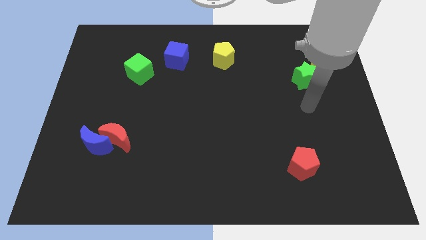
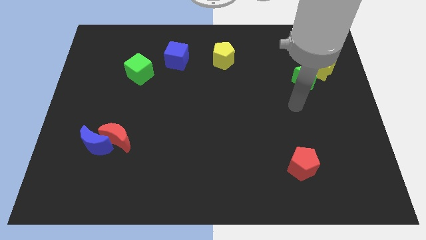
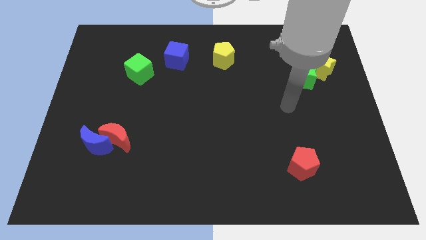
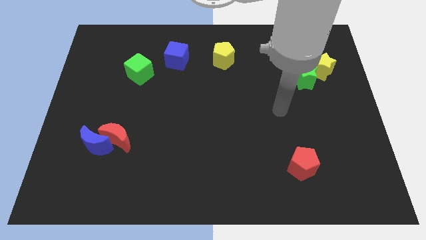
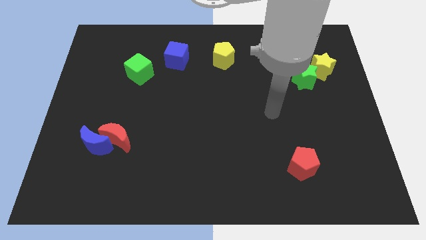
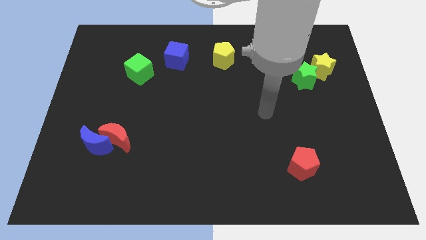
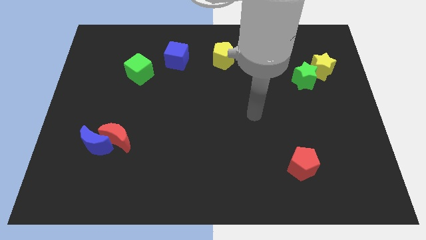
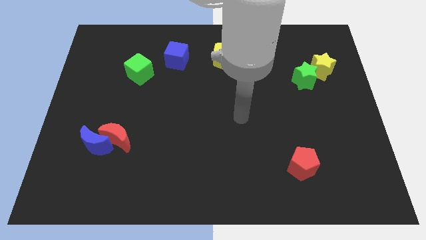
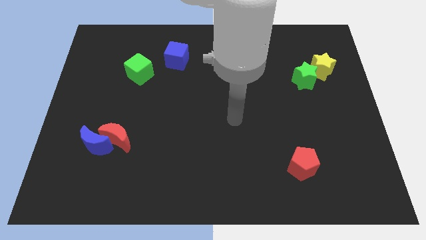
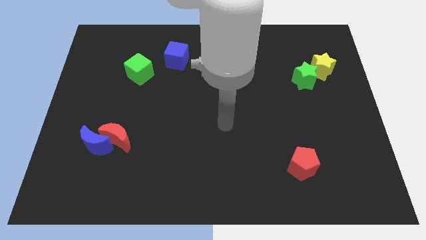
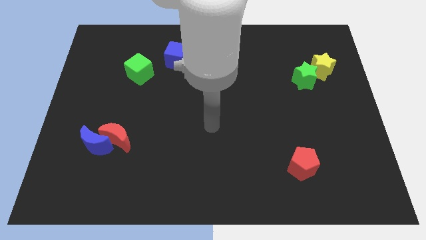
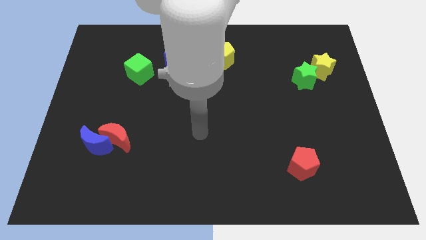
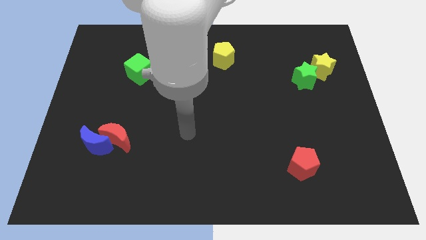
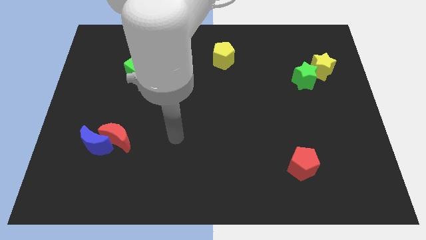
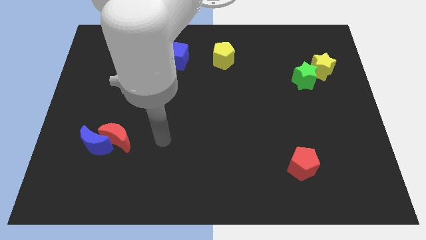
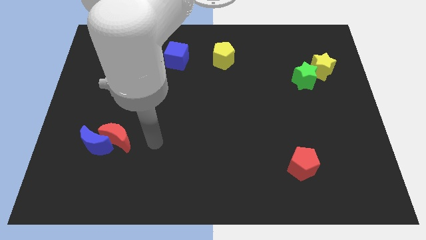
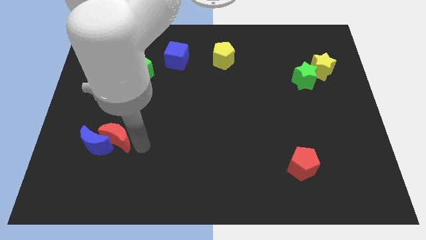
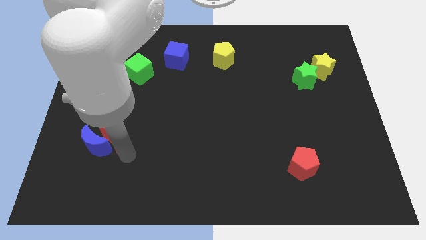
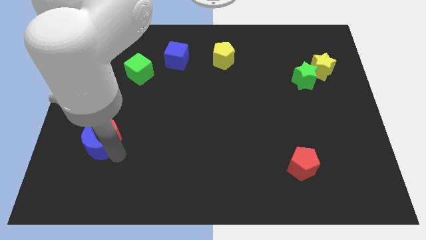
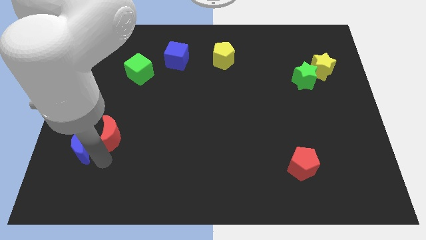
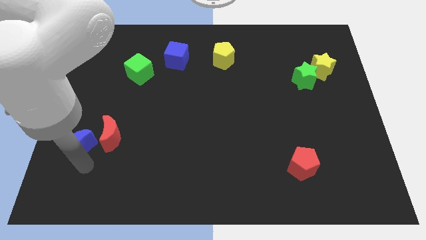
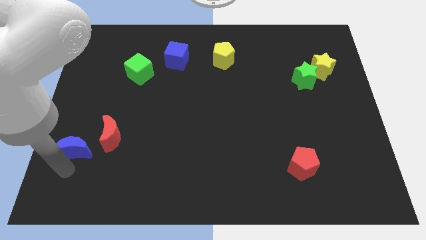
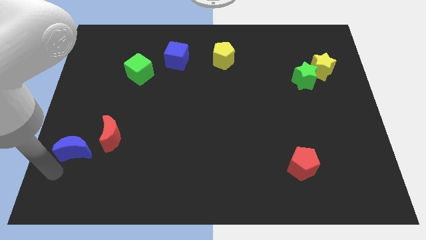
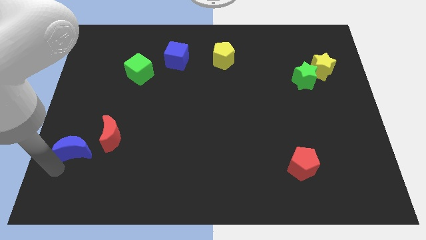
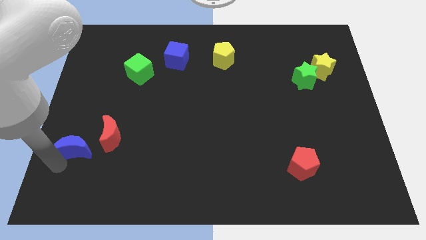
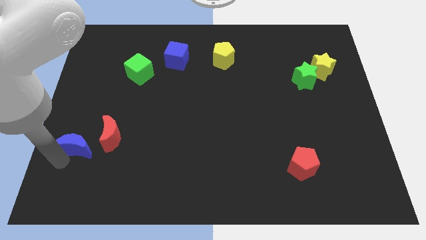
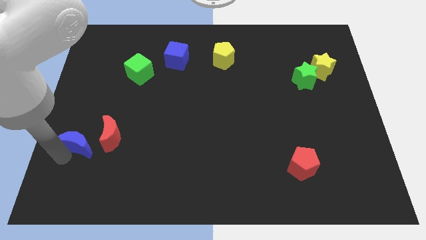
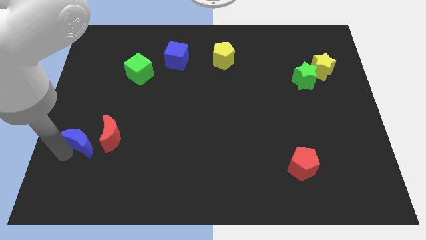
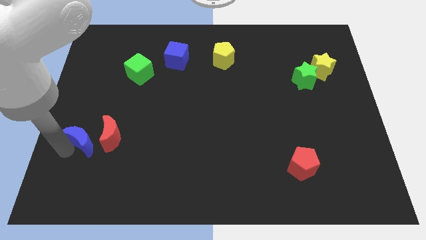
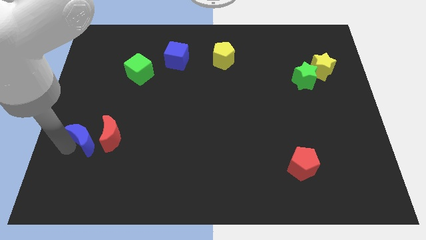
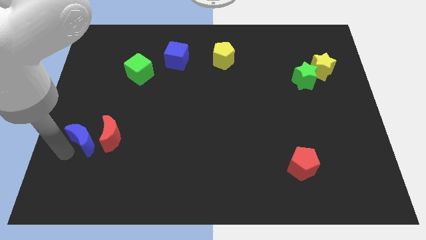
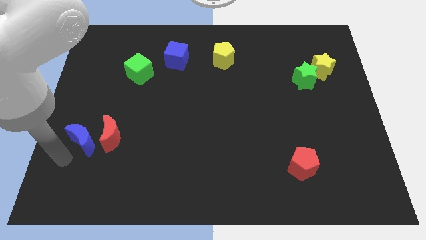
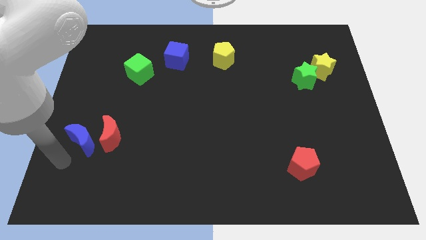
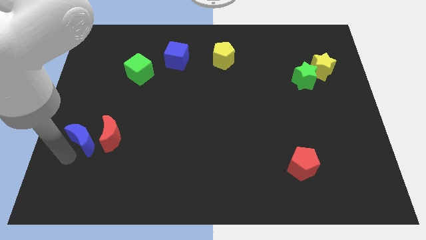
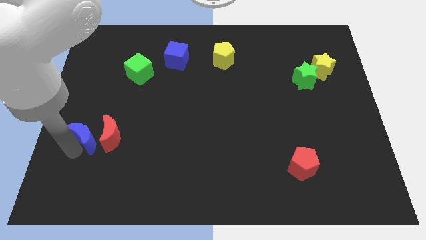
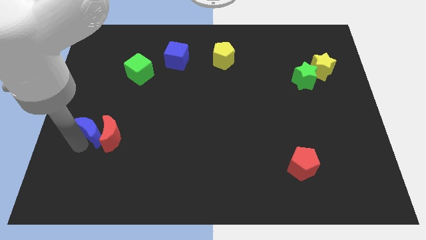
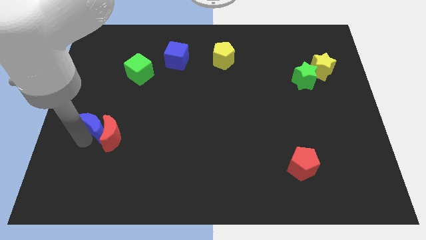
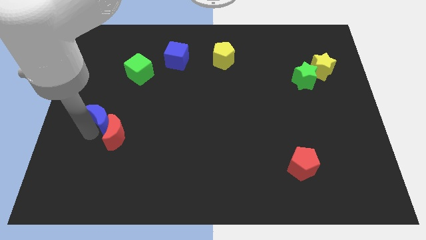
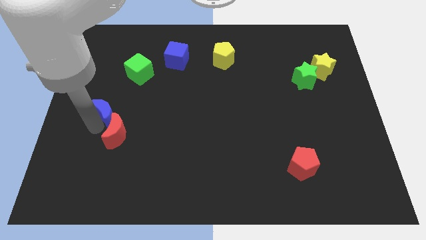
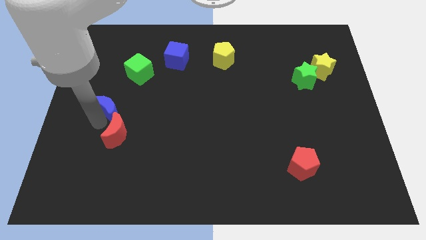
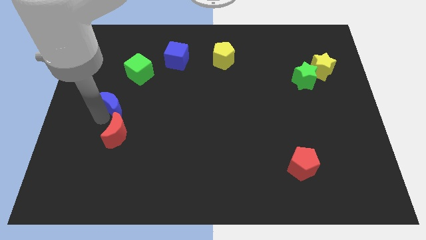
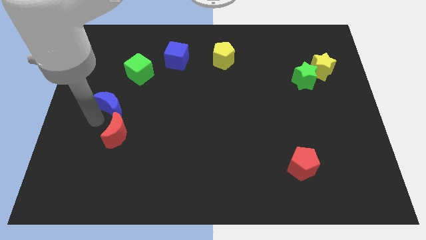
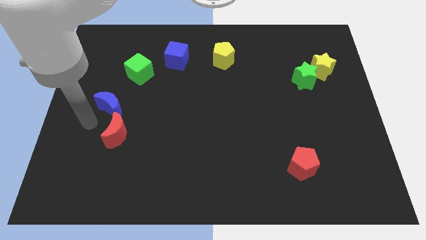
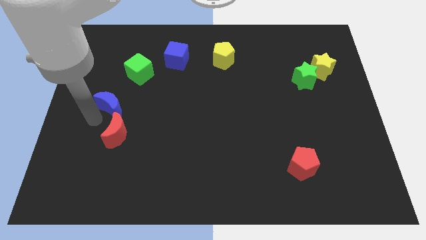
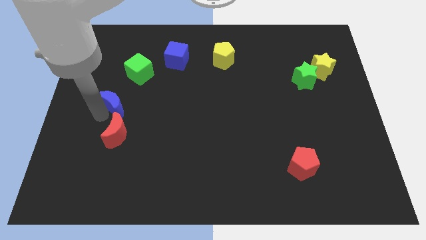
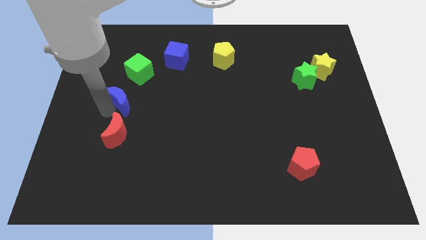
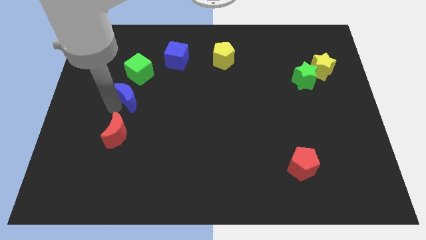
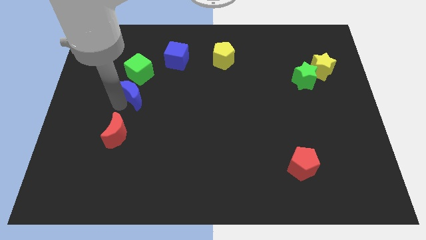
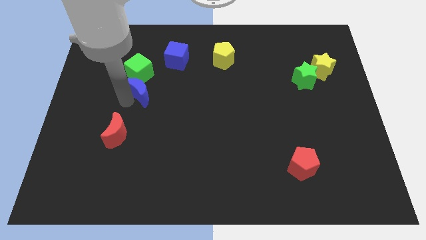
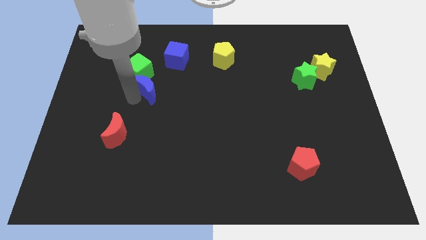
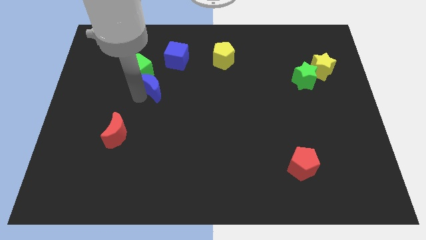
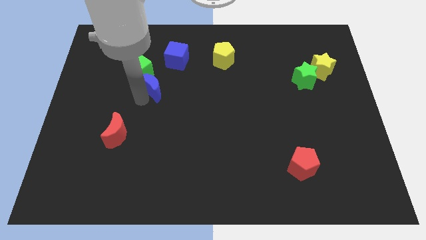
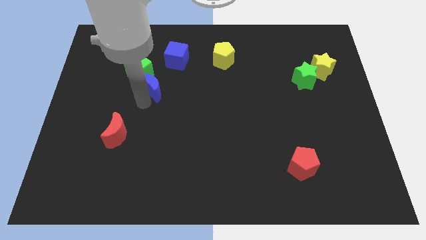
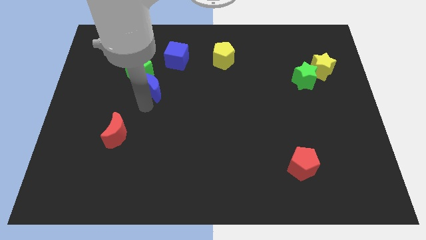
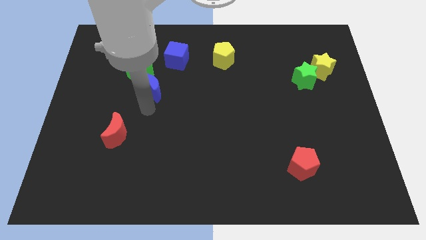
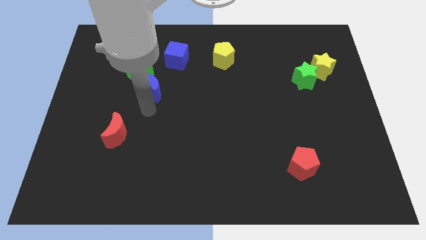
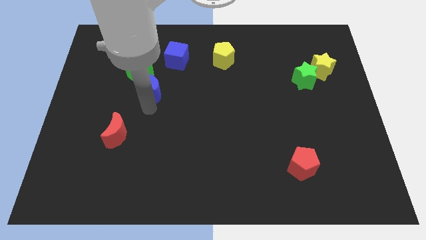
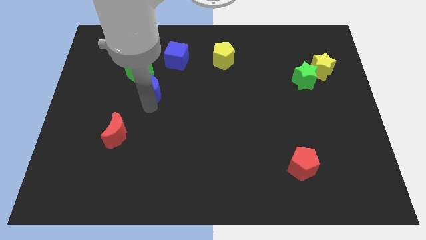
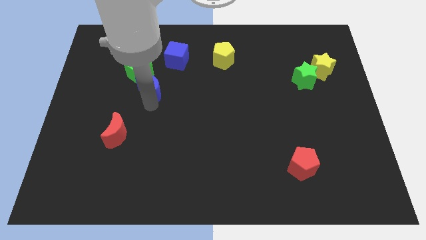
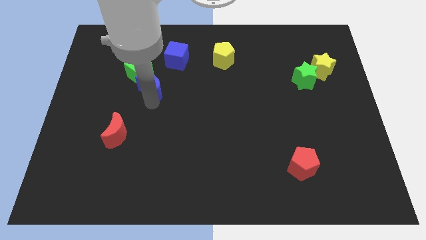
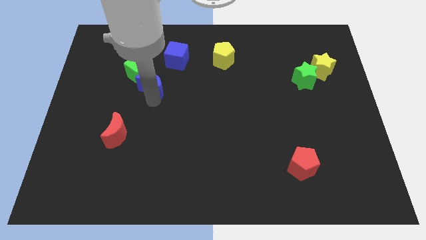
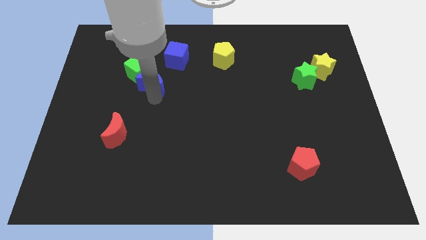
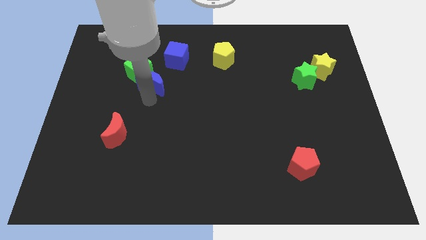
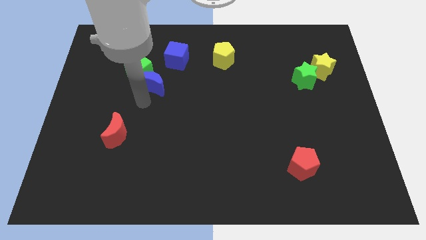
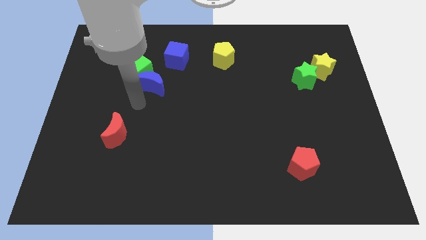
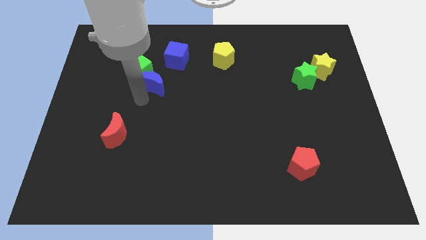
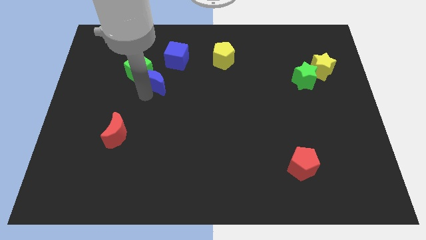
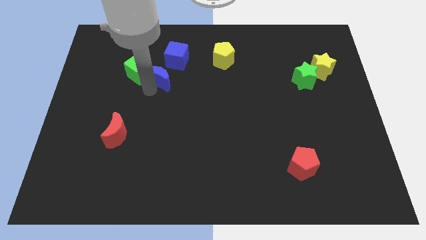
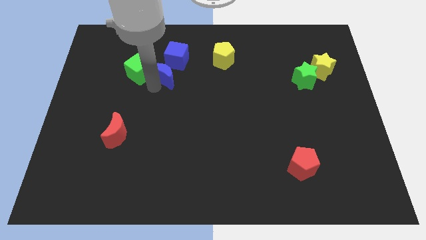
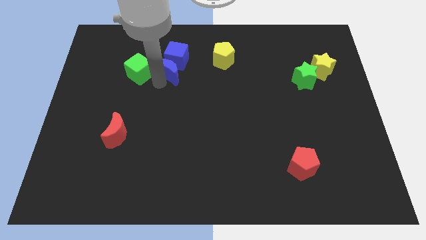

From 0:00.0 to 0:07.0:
slide the blue moon towards the blue cube
